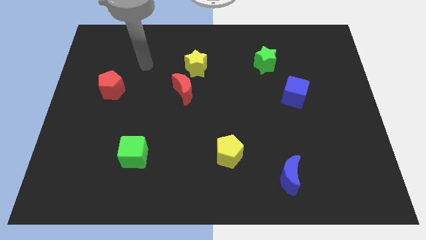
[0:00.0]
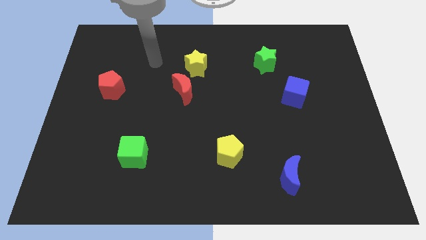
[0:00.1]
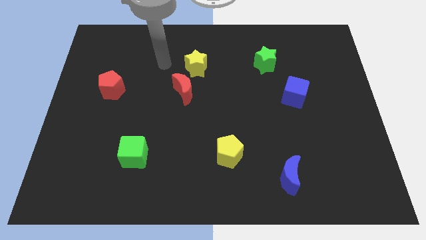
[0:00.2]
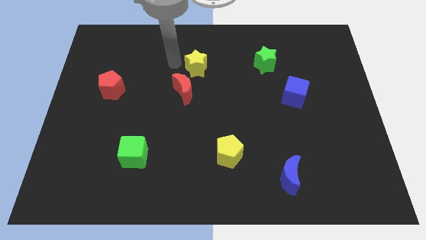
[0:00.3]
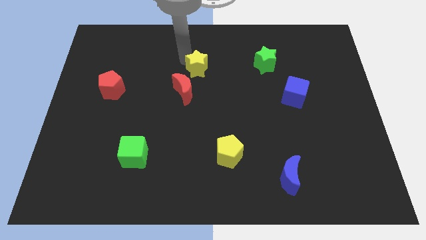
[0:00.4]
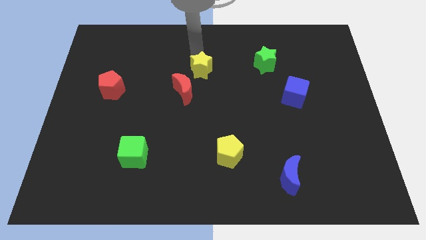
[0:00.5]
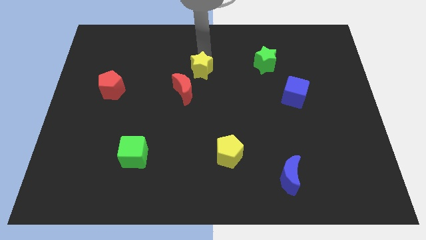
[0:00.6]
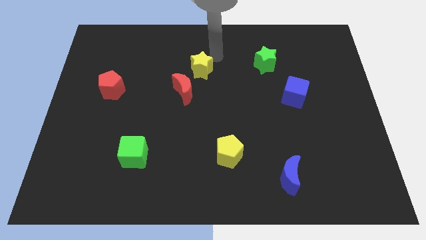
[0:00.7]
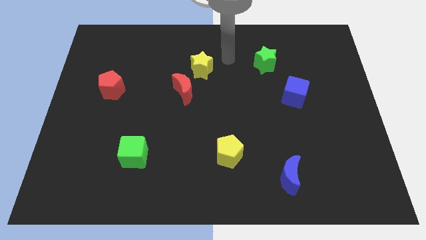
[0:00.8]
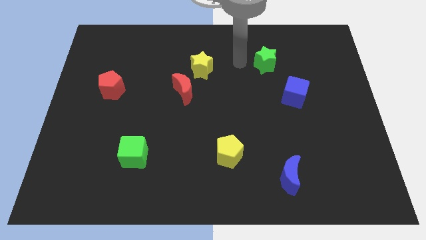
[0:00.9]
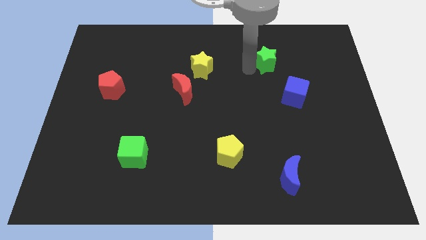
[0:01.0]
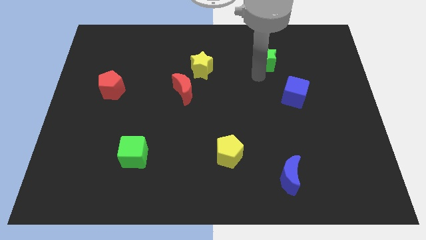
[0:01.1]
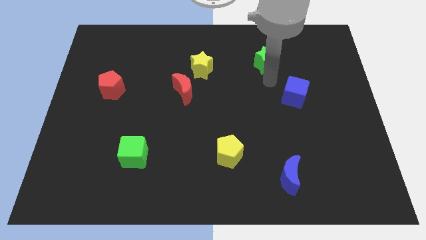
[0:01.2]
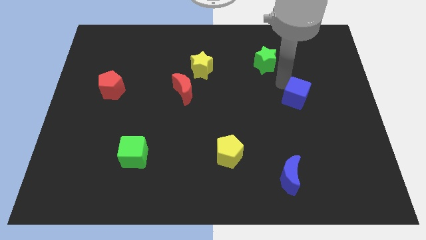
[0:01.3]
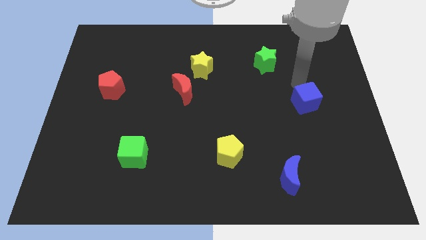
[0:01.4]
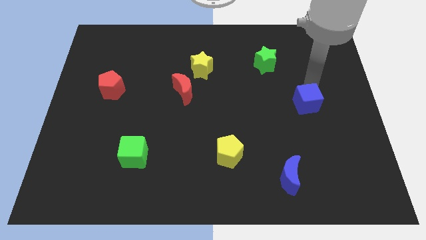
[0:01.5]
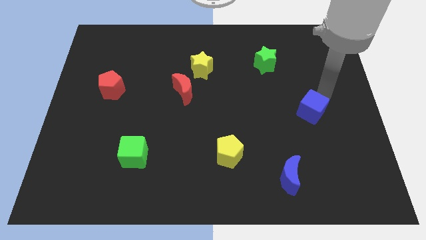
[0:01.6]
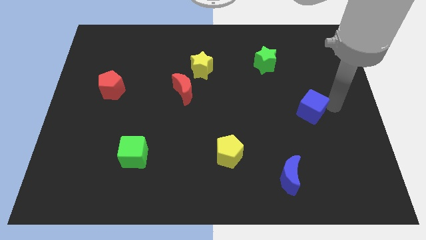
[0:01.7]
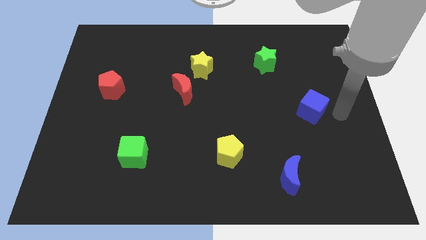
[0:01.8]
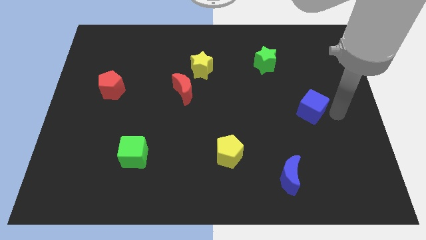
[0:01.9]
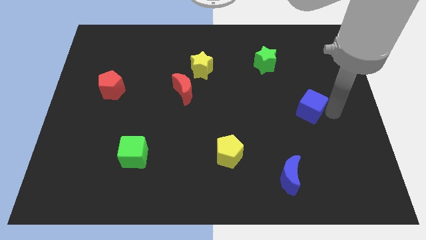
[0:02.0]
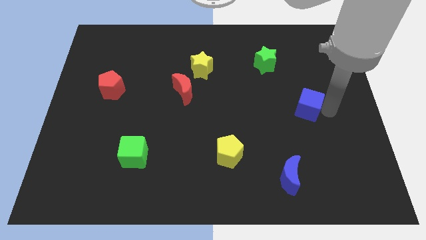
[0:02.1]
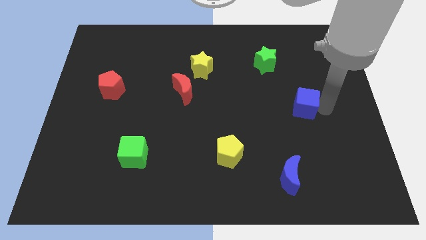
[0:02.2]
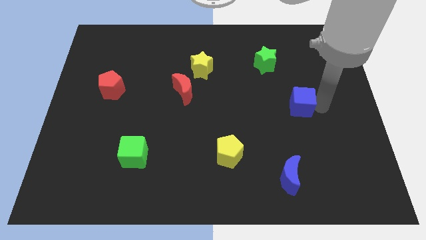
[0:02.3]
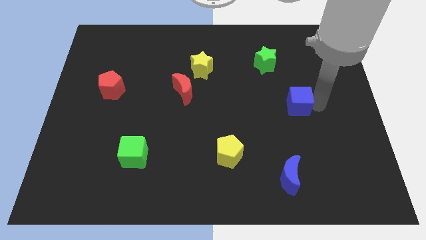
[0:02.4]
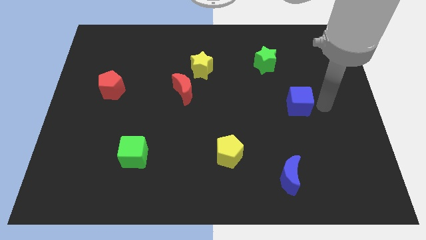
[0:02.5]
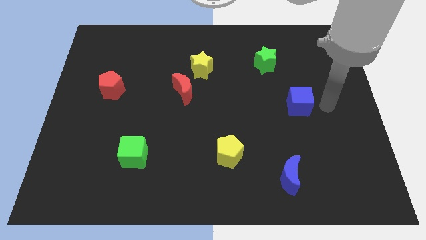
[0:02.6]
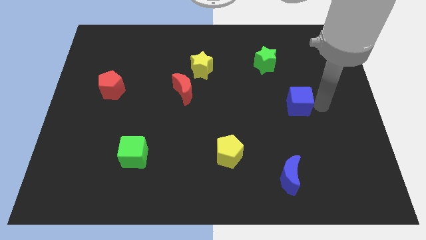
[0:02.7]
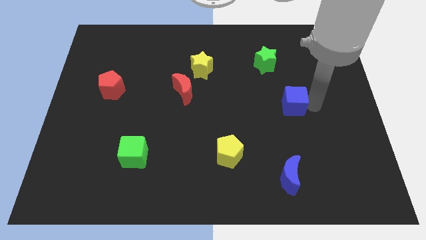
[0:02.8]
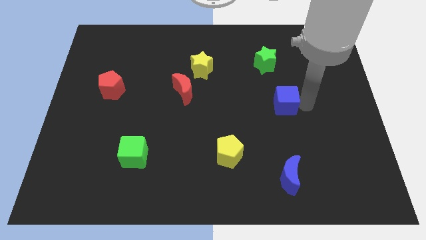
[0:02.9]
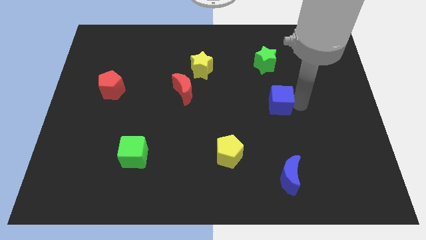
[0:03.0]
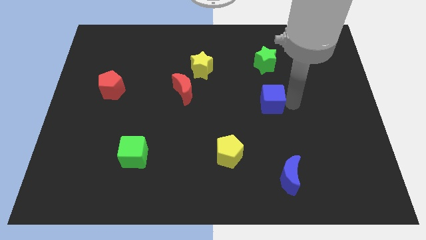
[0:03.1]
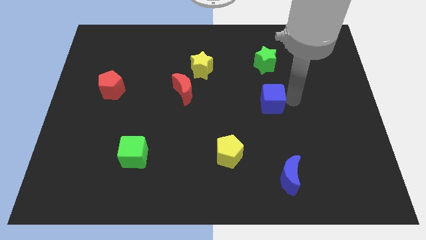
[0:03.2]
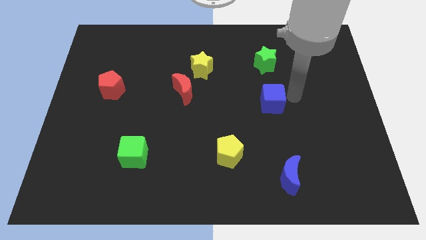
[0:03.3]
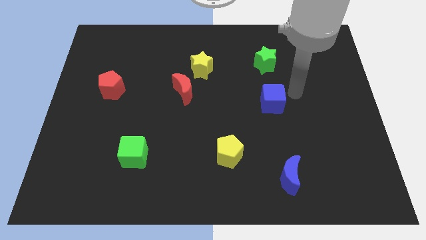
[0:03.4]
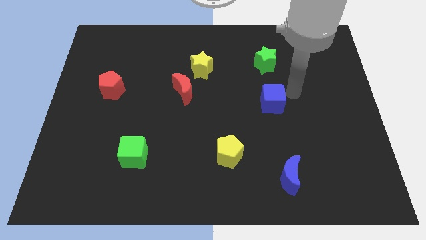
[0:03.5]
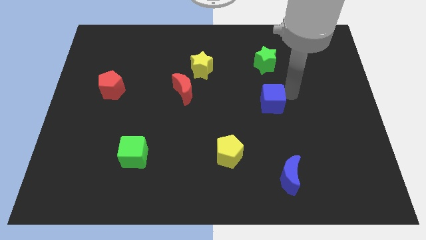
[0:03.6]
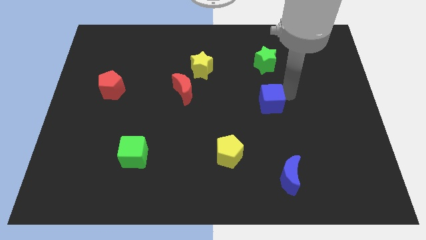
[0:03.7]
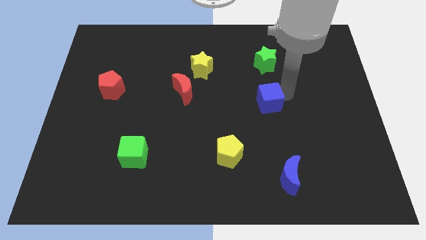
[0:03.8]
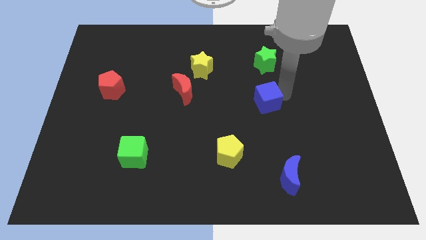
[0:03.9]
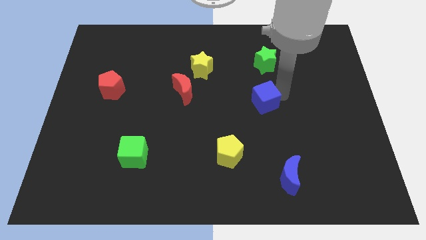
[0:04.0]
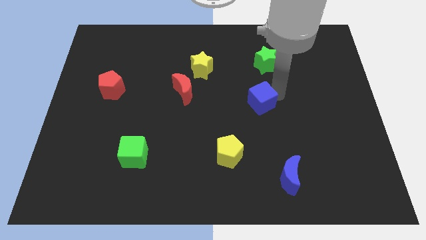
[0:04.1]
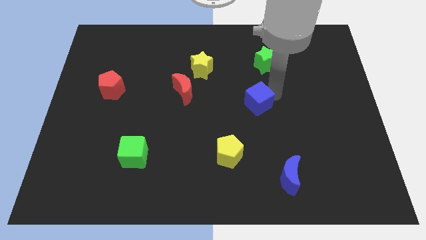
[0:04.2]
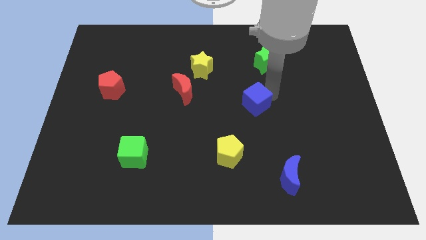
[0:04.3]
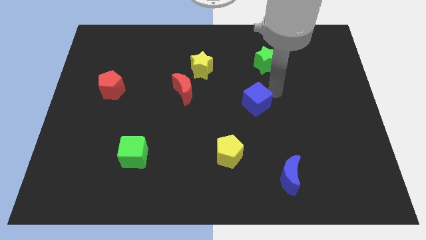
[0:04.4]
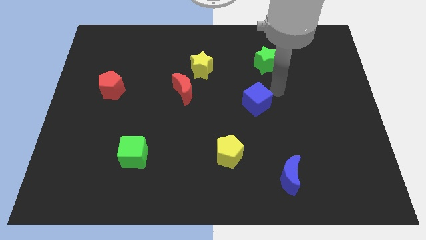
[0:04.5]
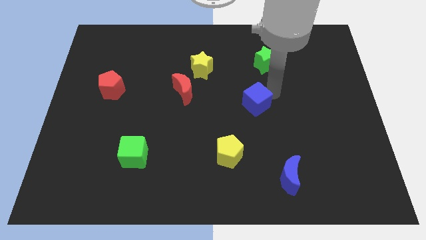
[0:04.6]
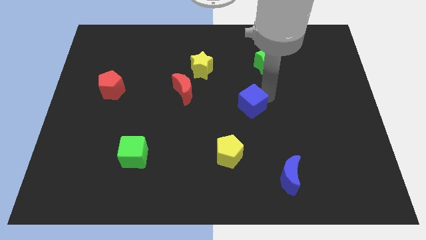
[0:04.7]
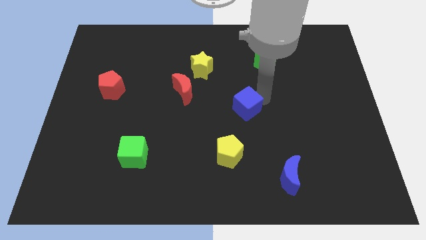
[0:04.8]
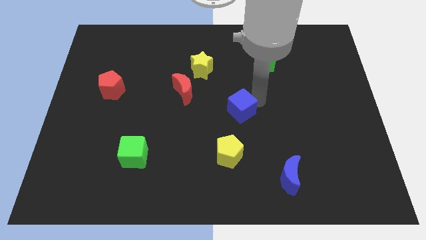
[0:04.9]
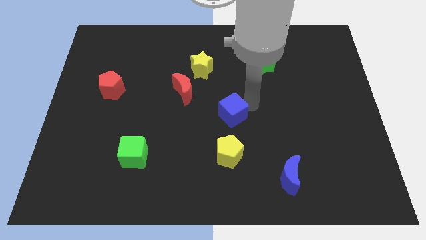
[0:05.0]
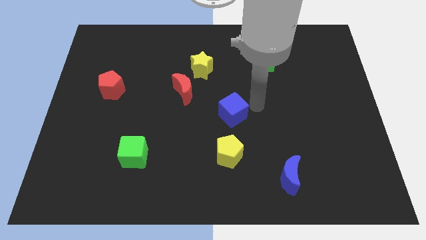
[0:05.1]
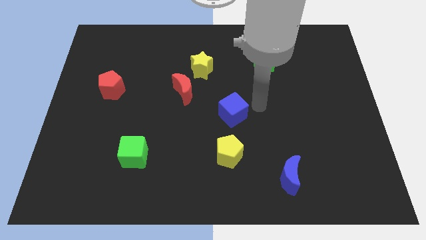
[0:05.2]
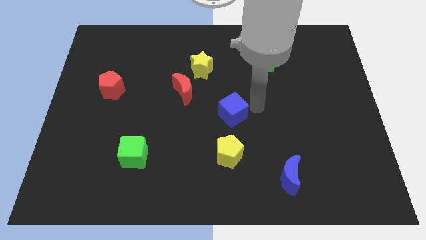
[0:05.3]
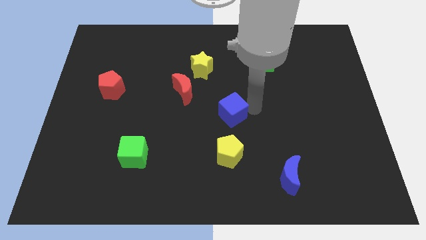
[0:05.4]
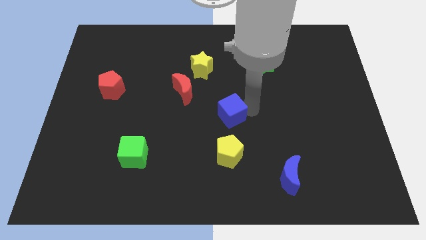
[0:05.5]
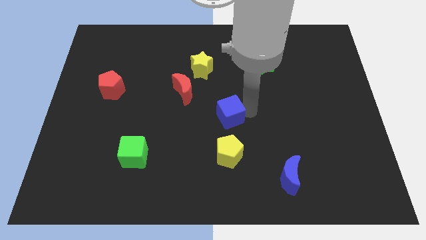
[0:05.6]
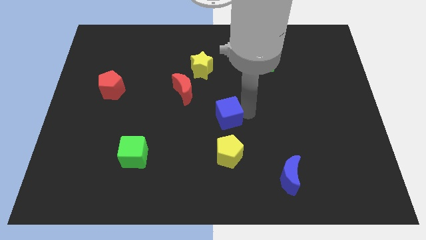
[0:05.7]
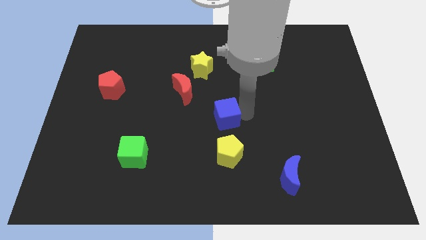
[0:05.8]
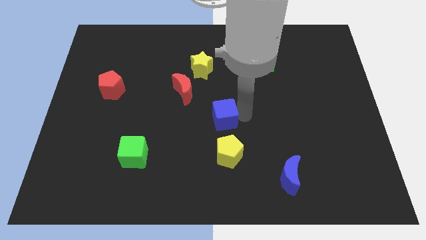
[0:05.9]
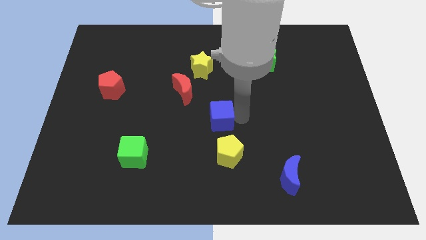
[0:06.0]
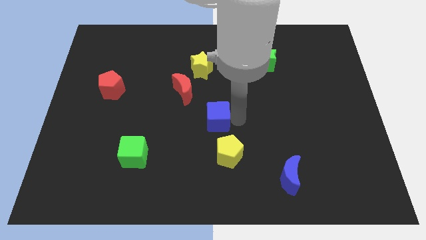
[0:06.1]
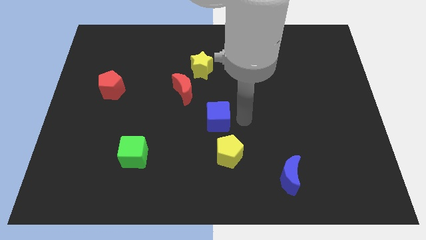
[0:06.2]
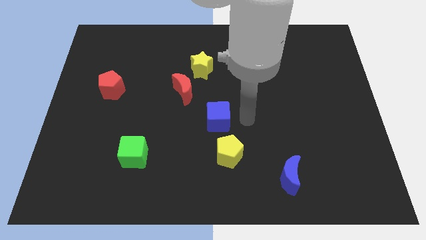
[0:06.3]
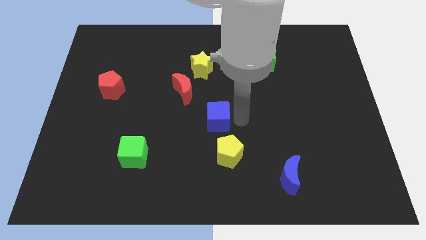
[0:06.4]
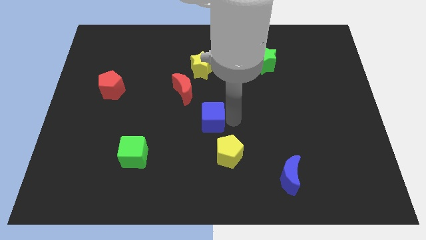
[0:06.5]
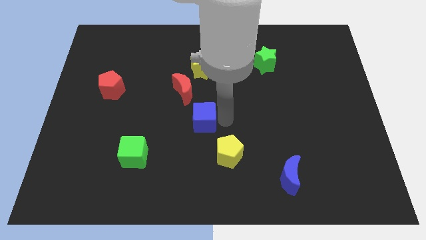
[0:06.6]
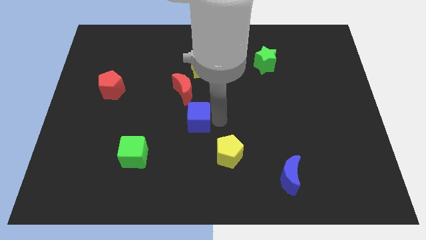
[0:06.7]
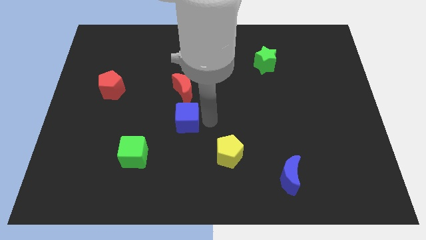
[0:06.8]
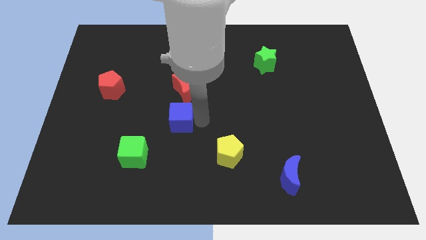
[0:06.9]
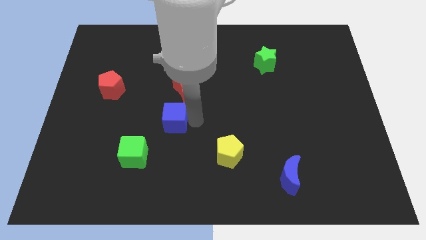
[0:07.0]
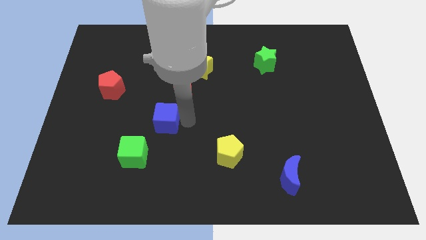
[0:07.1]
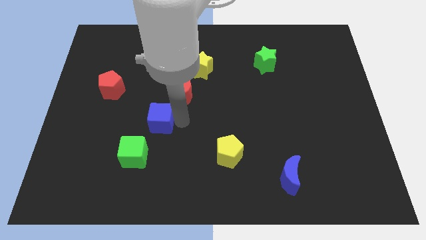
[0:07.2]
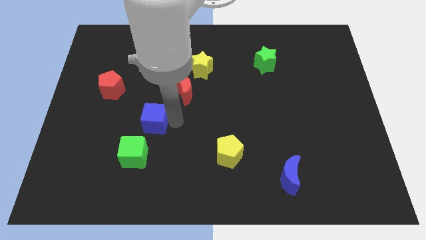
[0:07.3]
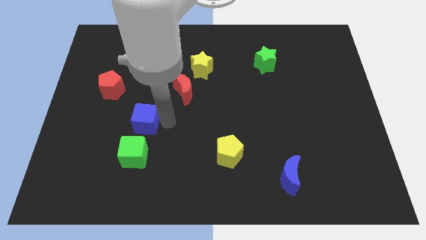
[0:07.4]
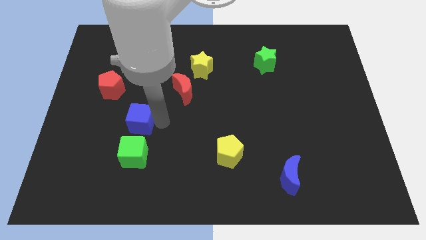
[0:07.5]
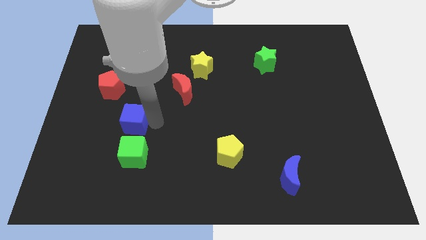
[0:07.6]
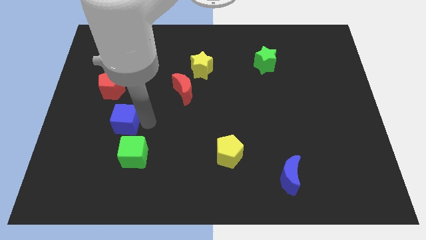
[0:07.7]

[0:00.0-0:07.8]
push the blue cube to the bottom side of the red pentagon
